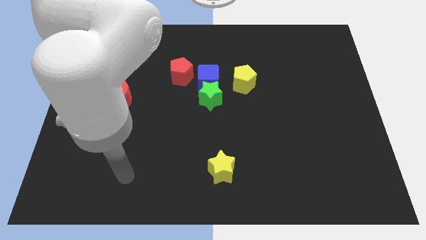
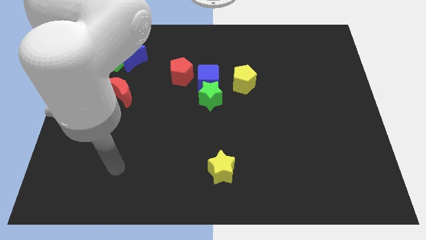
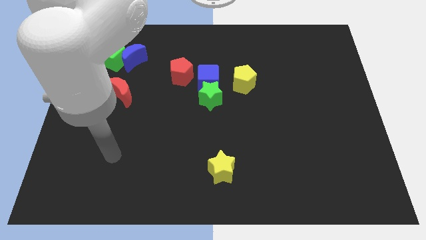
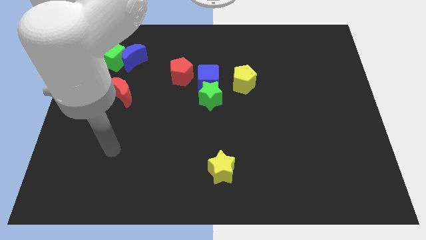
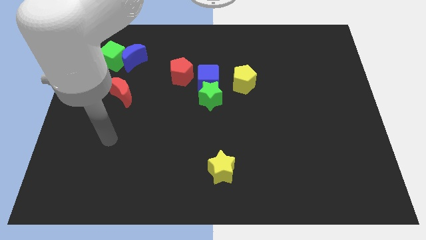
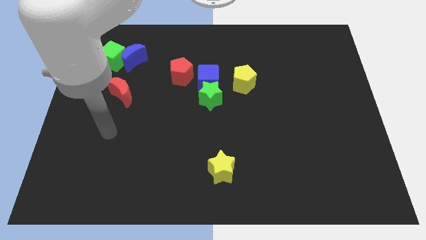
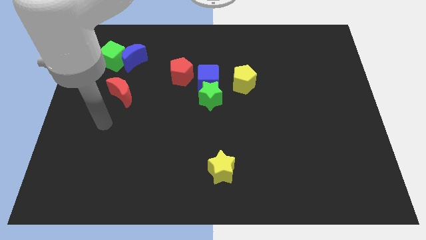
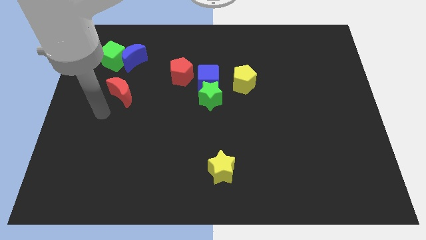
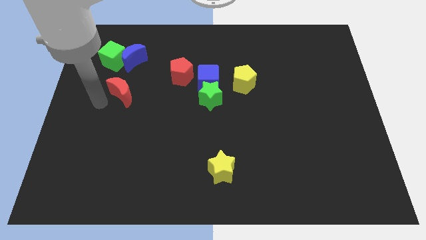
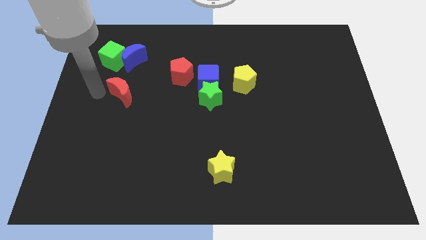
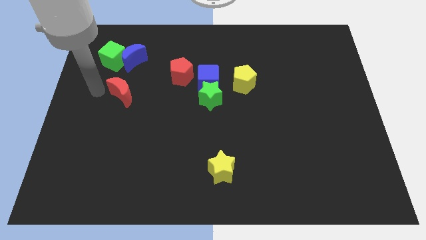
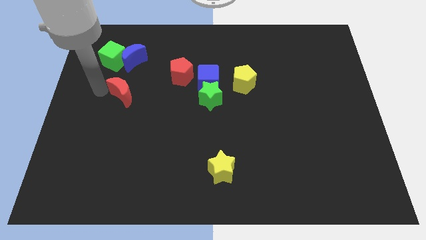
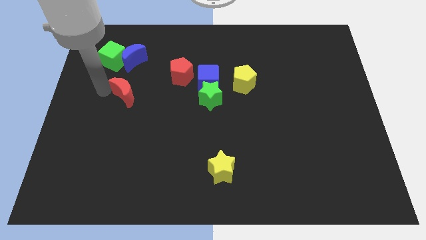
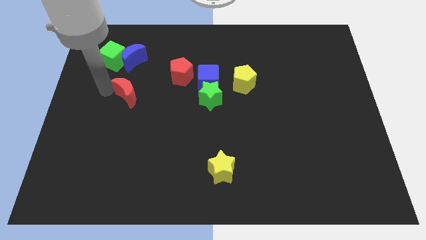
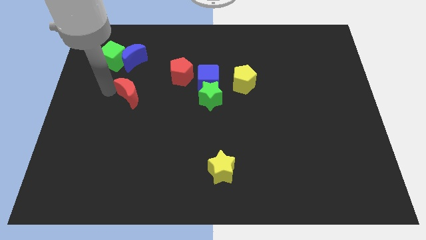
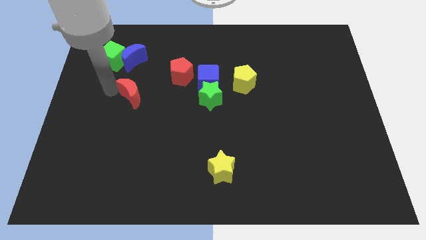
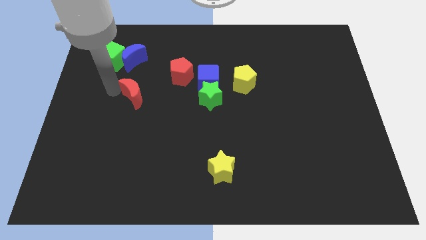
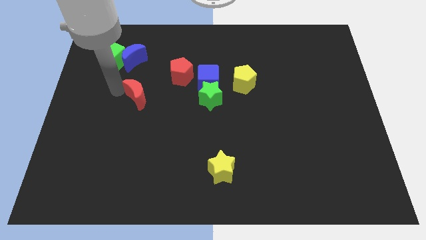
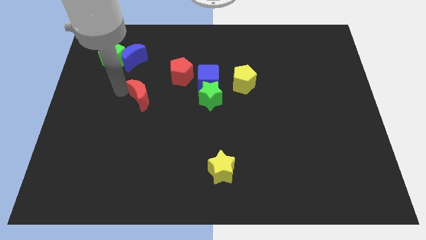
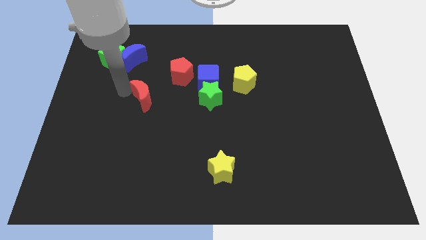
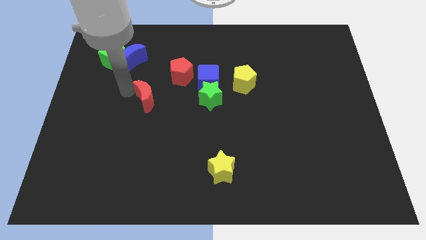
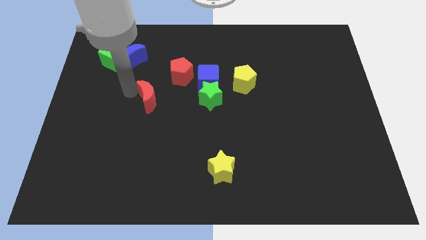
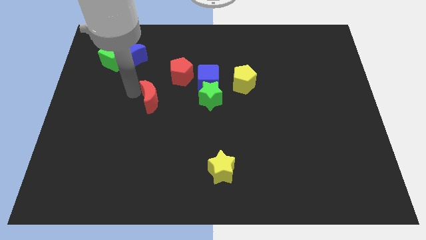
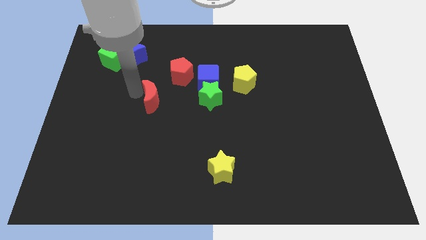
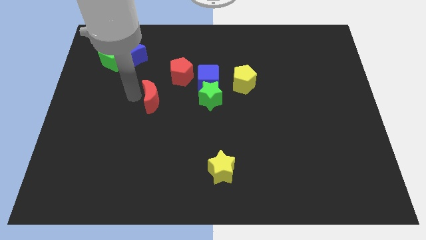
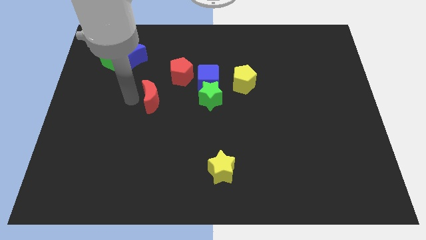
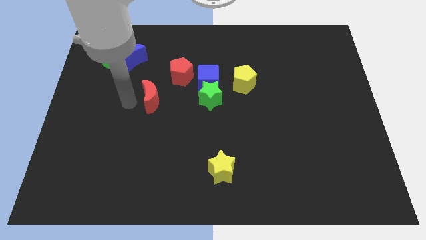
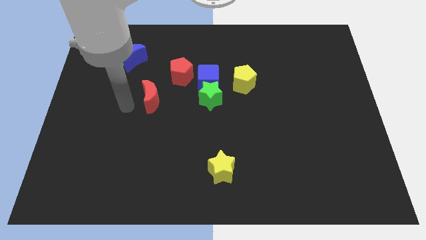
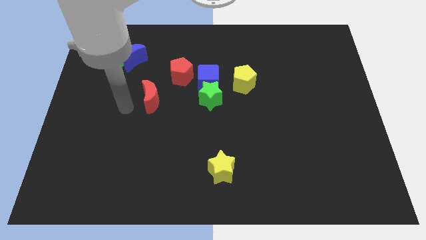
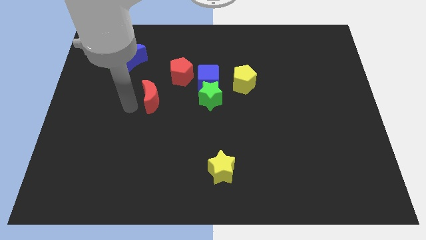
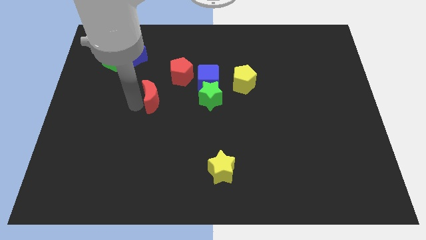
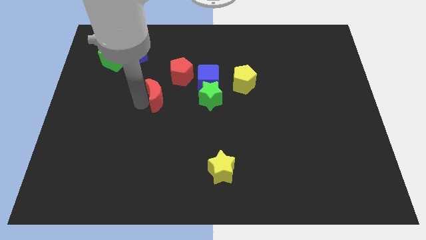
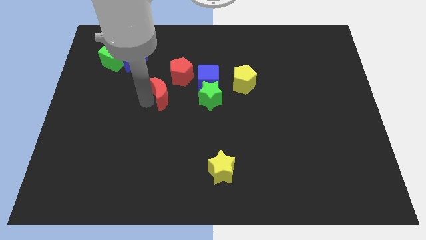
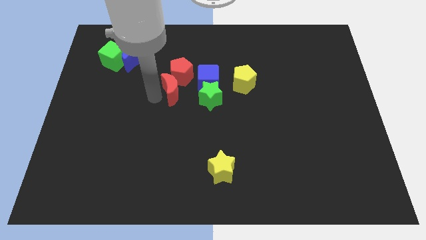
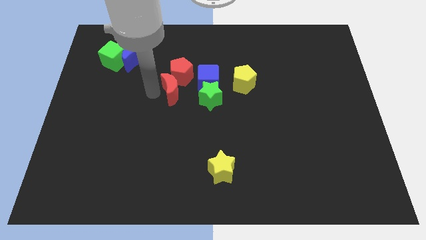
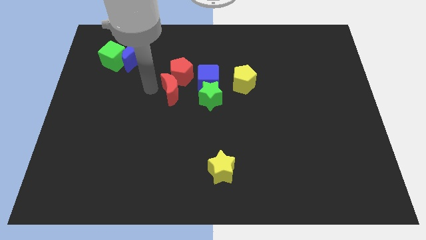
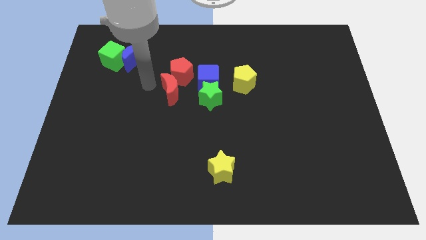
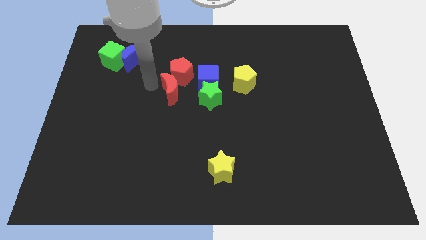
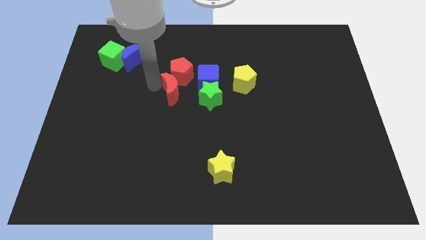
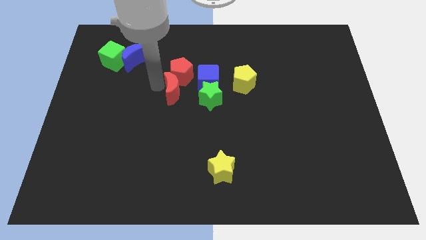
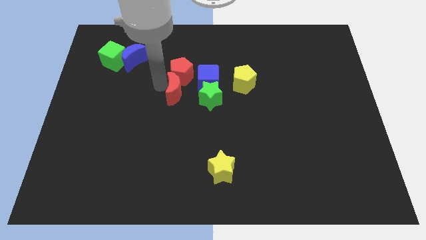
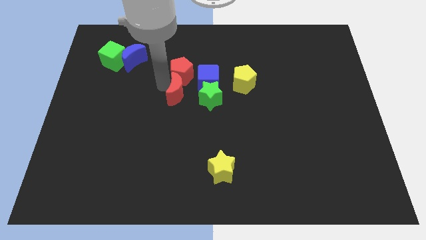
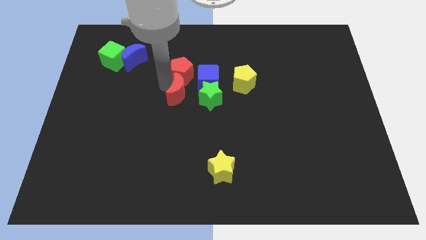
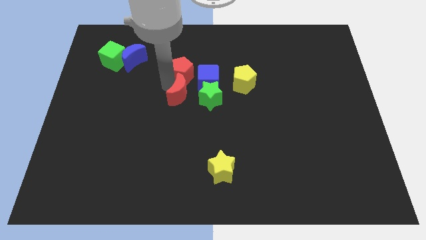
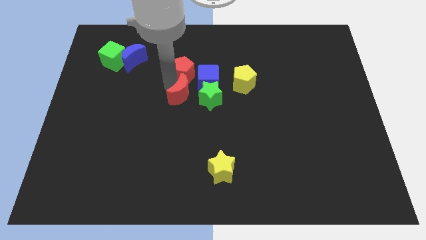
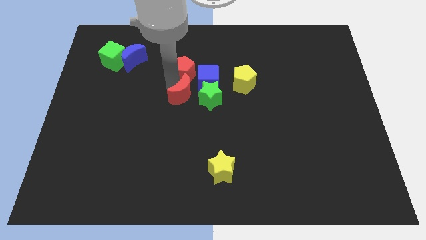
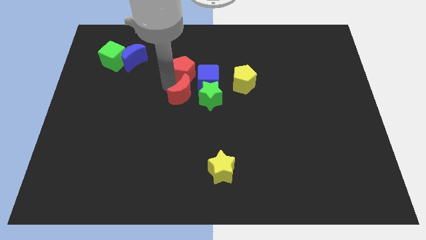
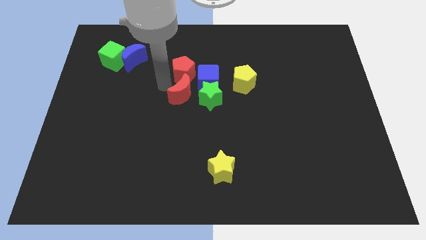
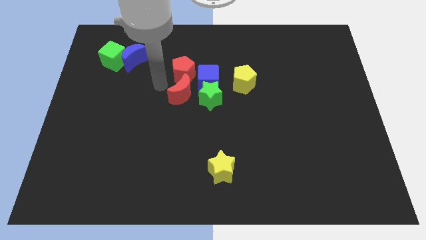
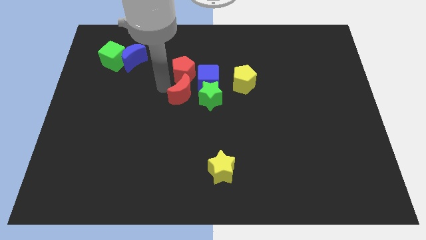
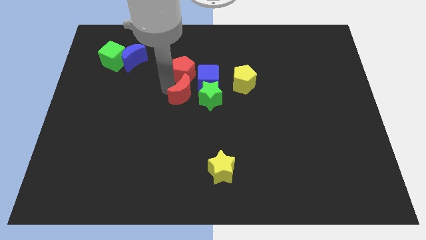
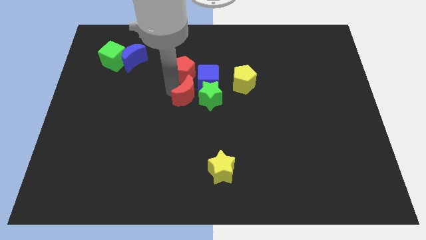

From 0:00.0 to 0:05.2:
put the red moon towards the green star

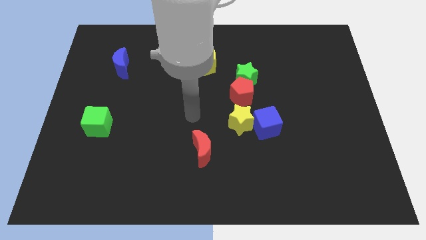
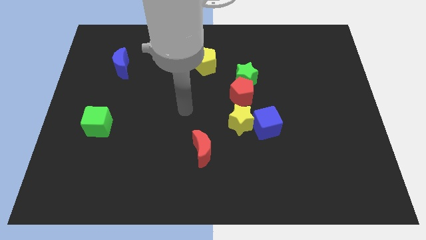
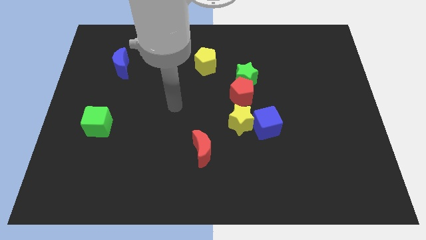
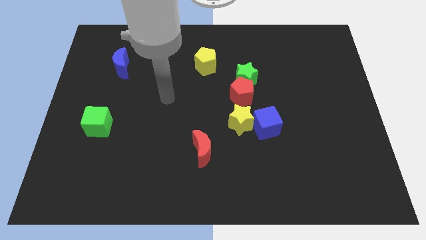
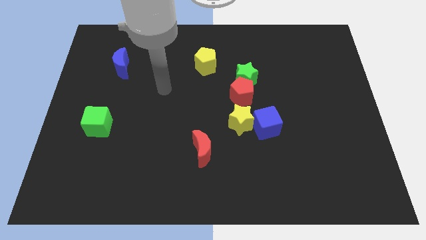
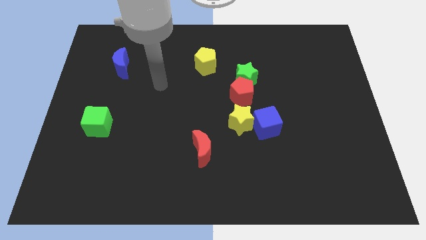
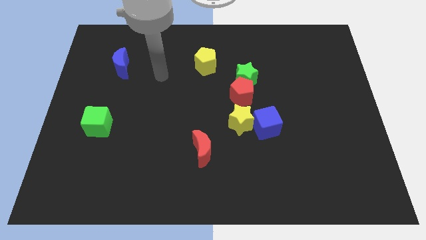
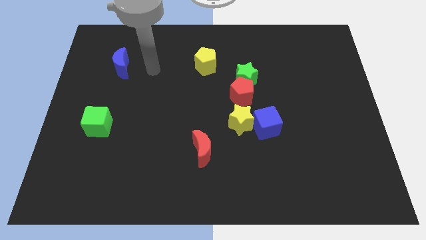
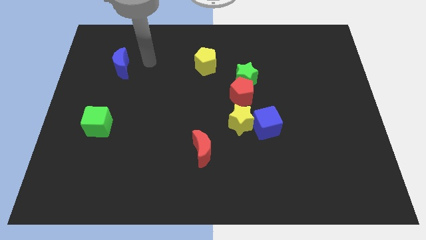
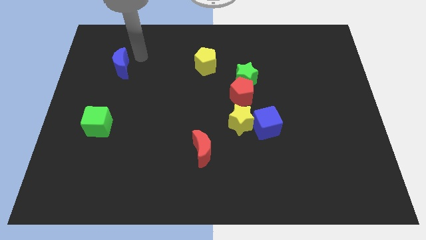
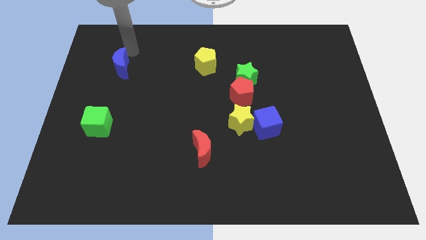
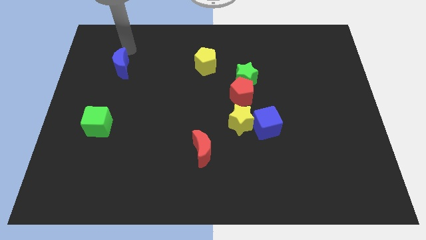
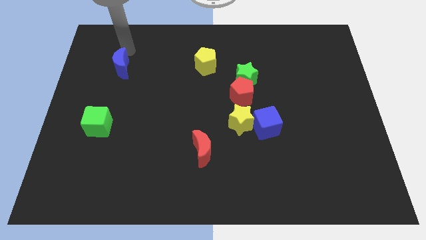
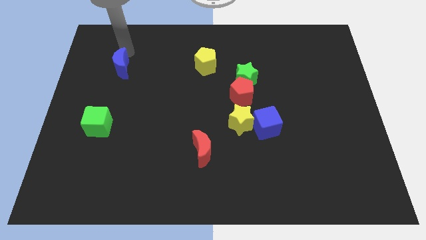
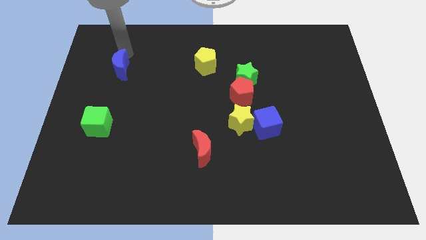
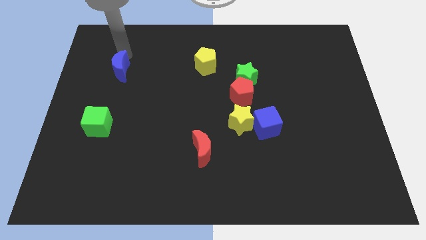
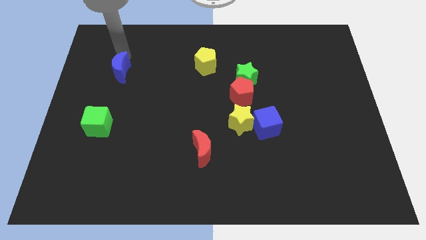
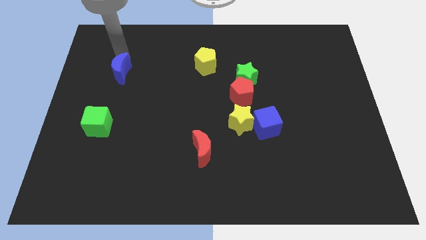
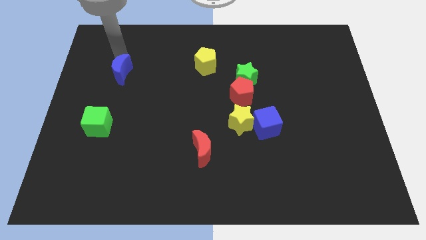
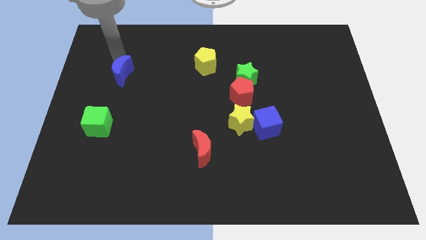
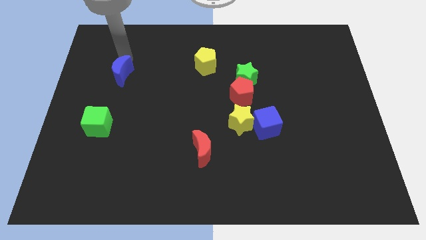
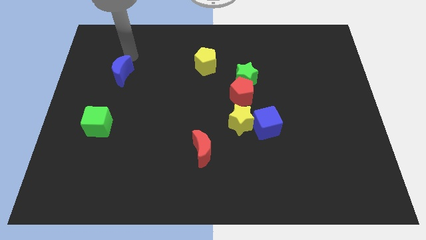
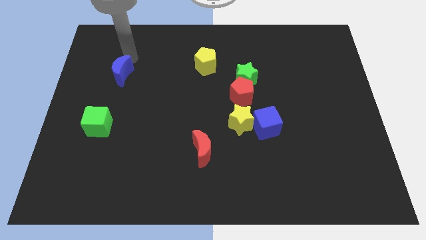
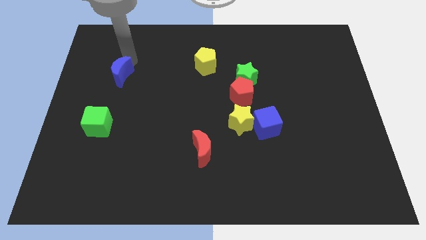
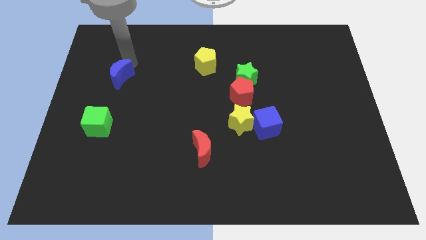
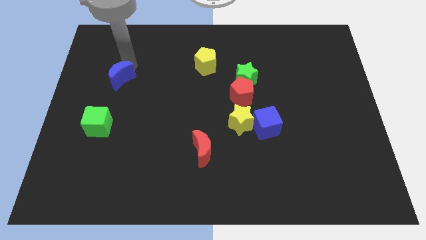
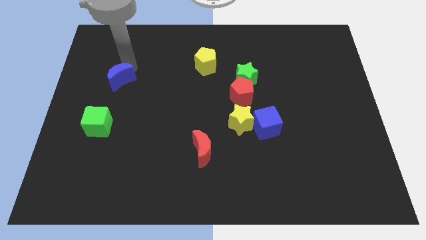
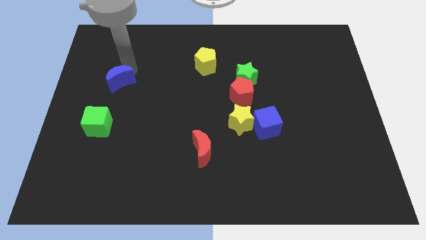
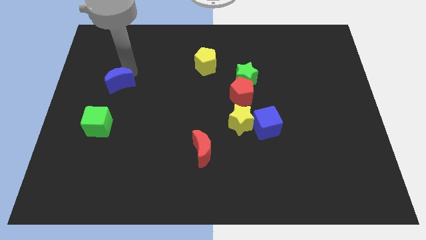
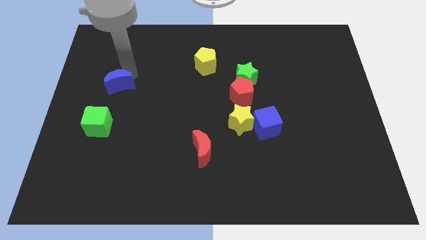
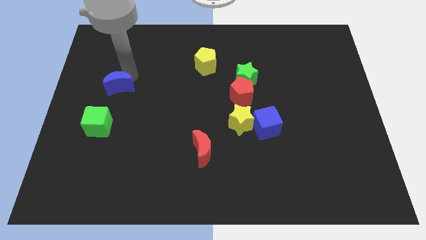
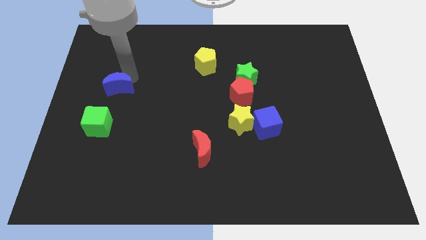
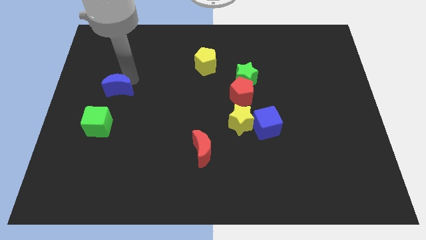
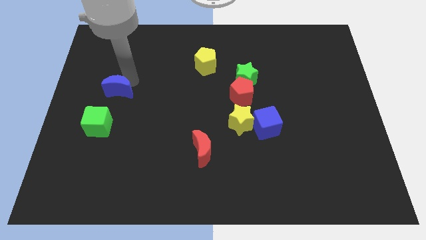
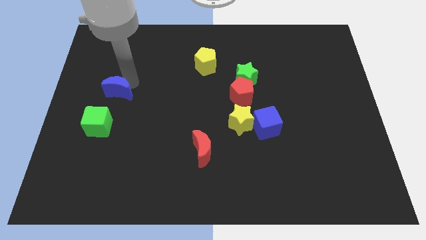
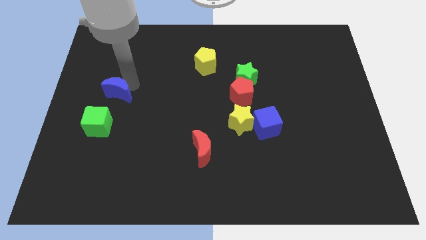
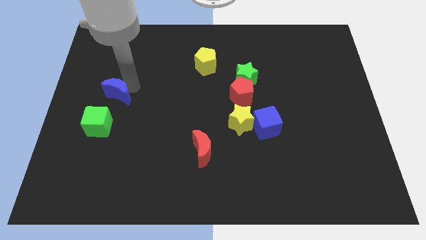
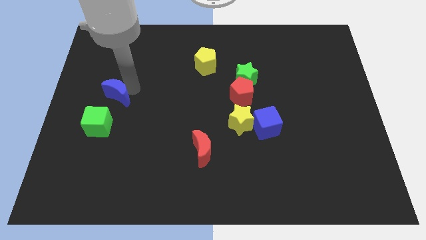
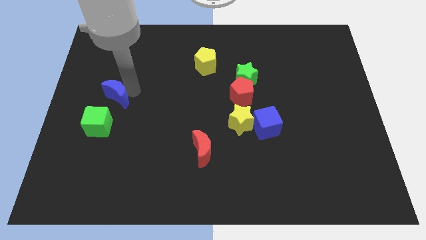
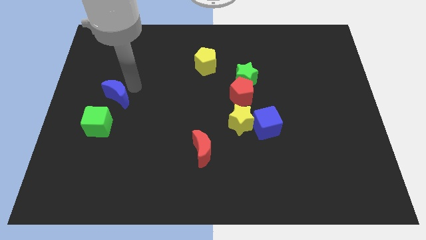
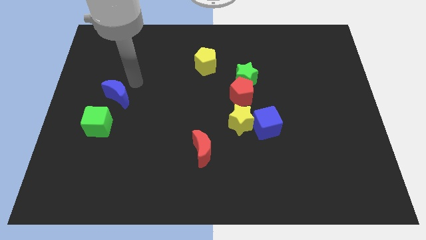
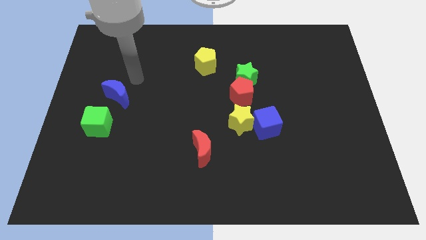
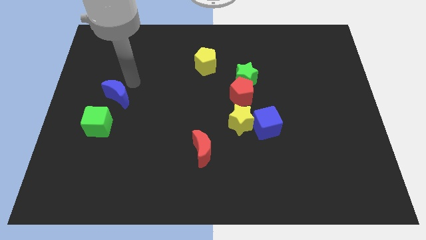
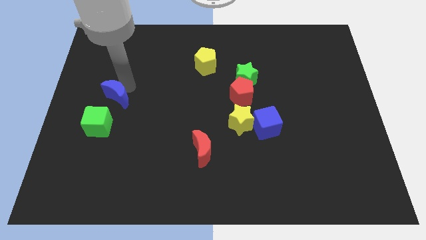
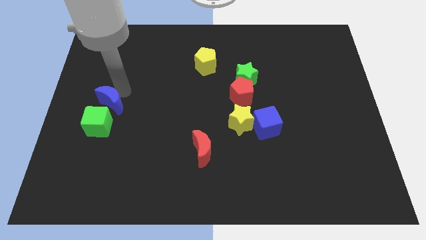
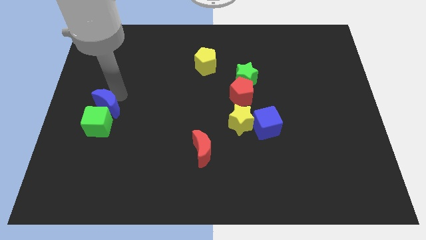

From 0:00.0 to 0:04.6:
push the blue moon close to the green cube
